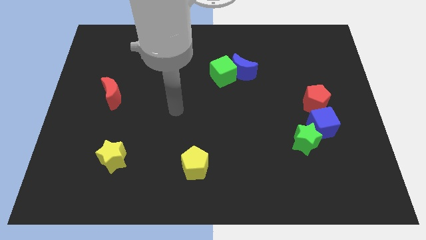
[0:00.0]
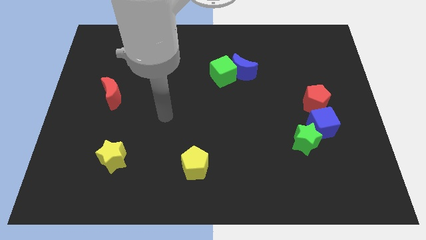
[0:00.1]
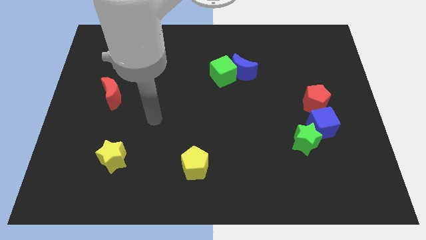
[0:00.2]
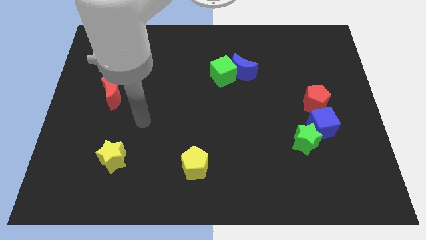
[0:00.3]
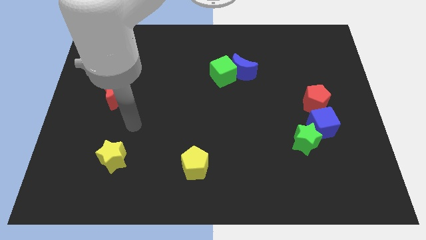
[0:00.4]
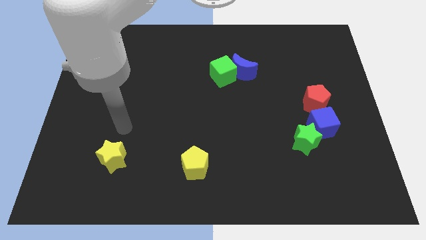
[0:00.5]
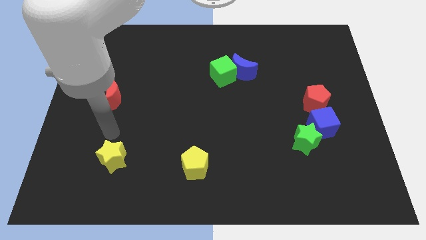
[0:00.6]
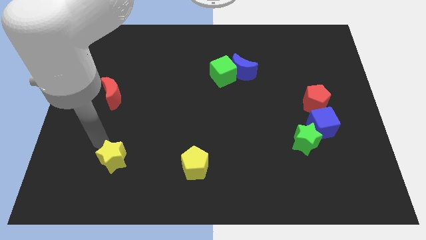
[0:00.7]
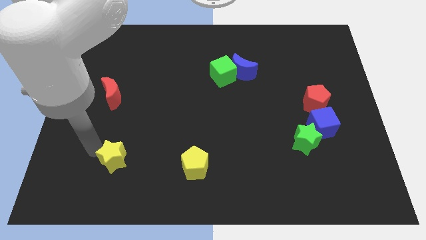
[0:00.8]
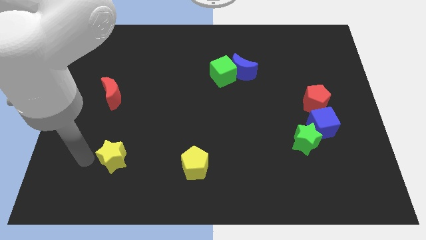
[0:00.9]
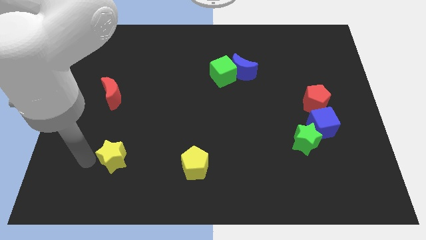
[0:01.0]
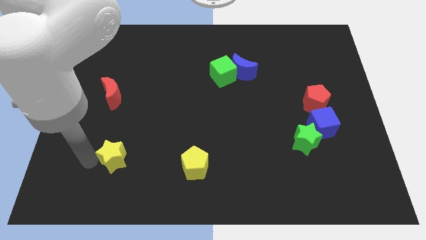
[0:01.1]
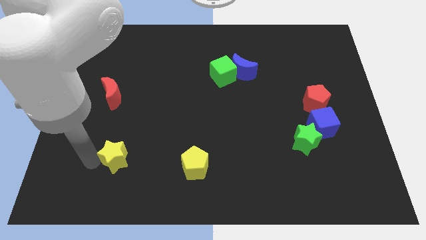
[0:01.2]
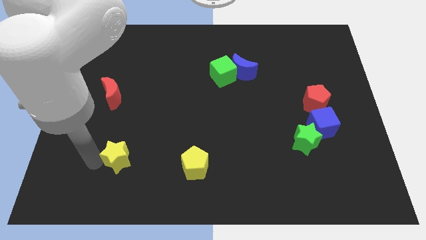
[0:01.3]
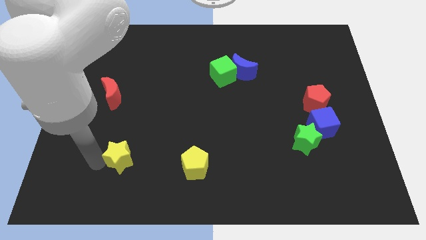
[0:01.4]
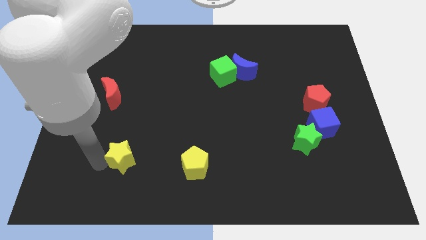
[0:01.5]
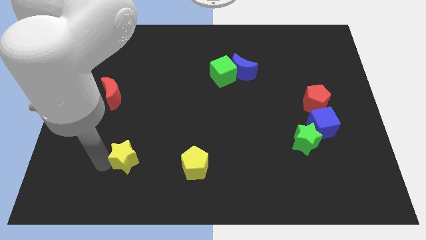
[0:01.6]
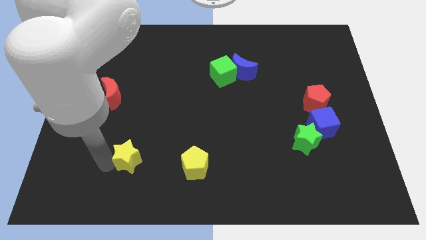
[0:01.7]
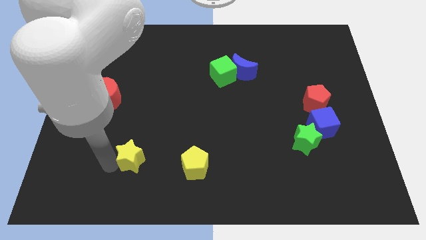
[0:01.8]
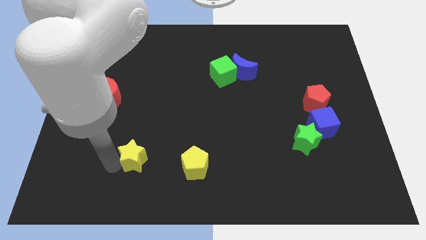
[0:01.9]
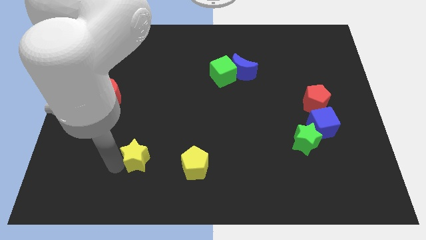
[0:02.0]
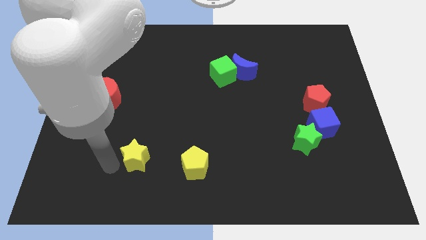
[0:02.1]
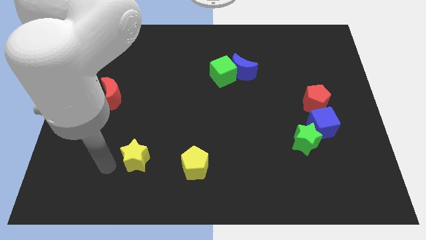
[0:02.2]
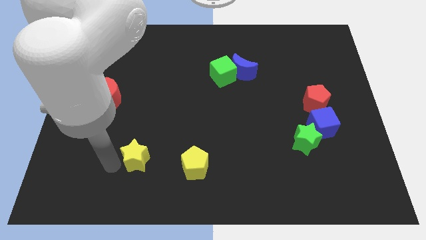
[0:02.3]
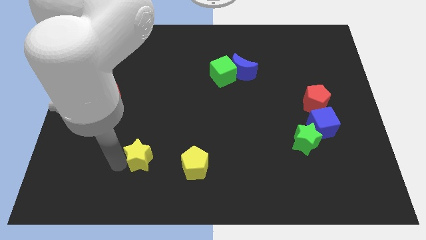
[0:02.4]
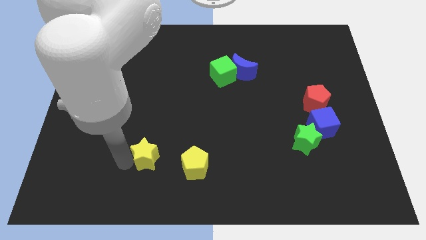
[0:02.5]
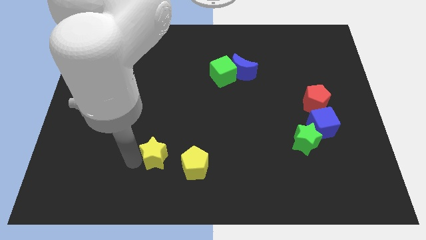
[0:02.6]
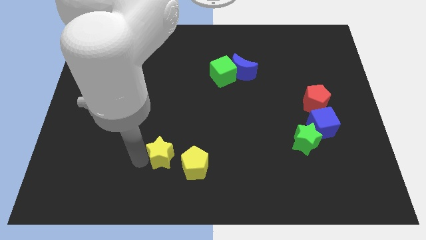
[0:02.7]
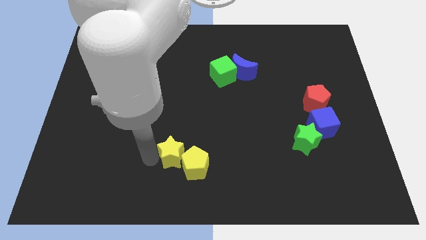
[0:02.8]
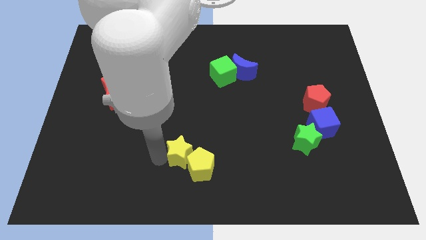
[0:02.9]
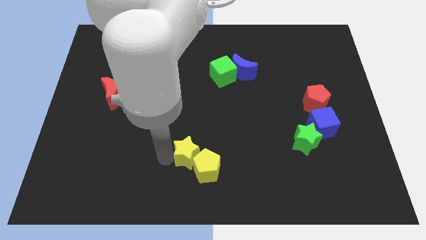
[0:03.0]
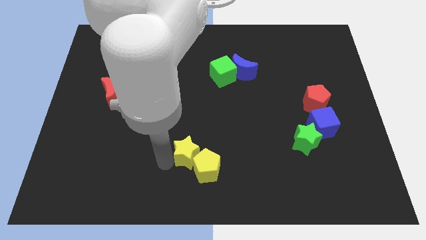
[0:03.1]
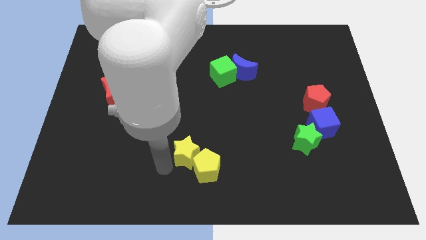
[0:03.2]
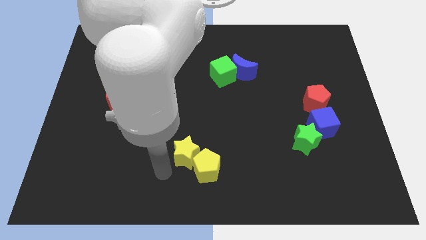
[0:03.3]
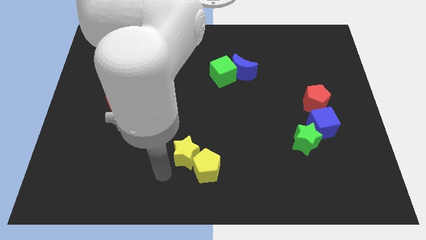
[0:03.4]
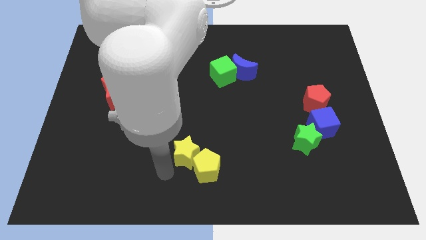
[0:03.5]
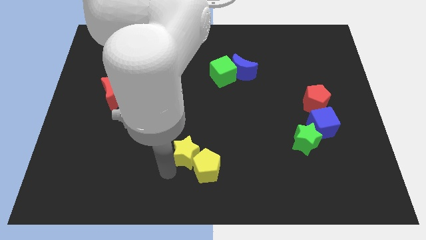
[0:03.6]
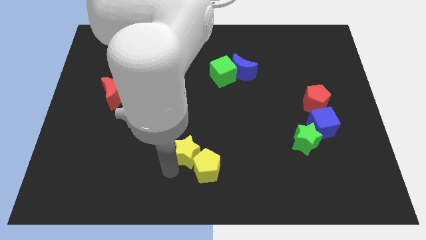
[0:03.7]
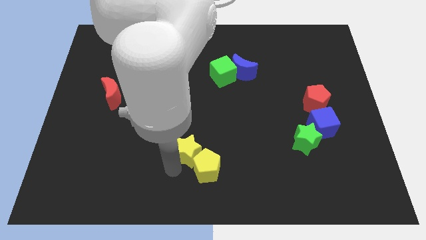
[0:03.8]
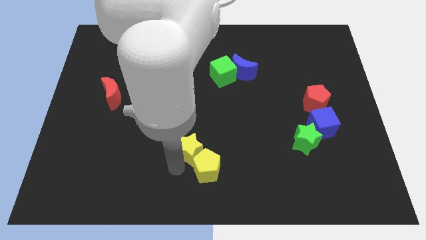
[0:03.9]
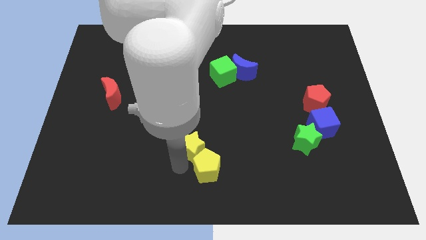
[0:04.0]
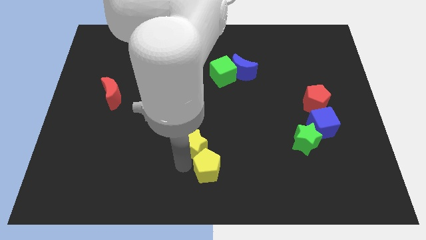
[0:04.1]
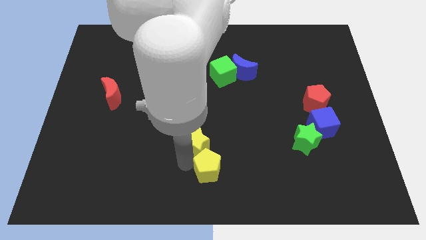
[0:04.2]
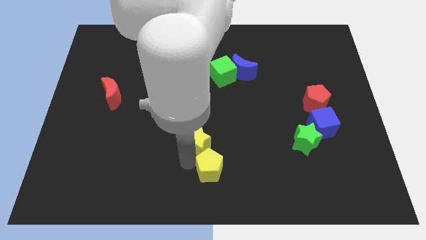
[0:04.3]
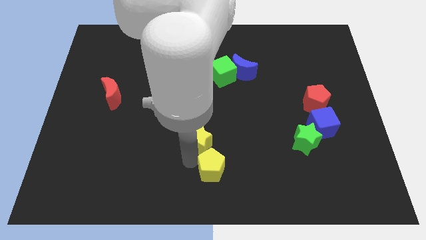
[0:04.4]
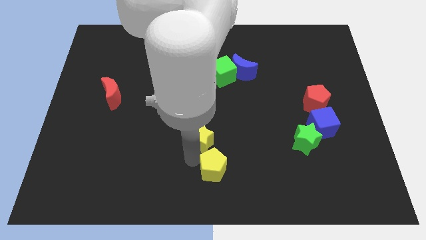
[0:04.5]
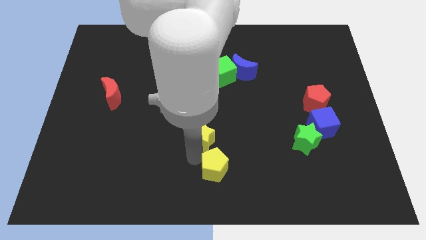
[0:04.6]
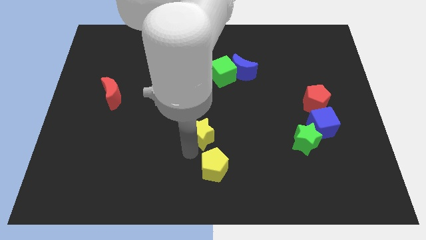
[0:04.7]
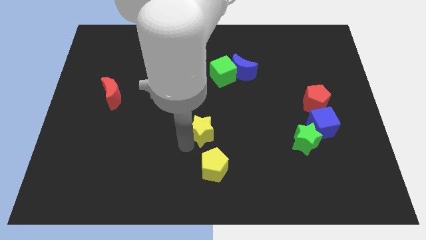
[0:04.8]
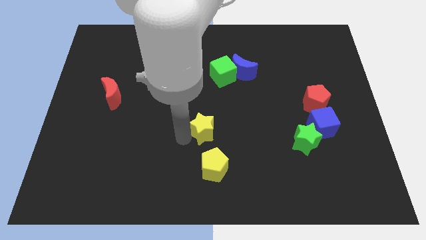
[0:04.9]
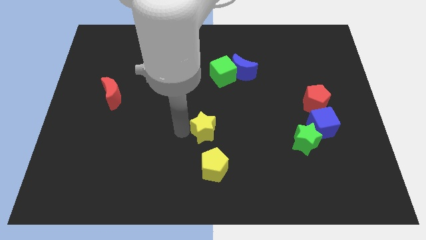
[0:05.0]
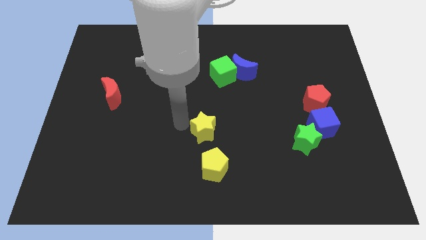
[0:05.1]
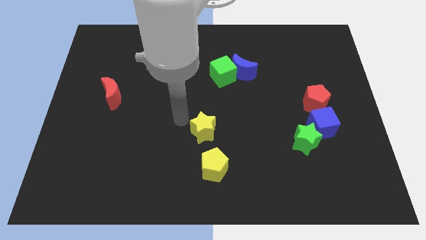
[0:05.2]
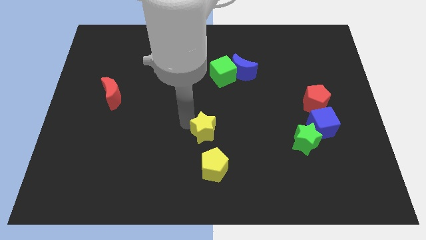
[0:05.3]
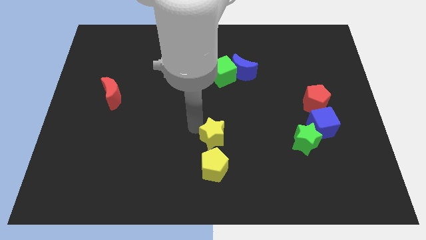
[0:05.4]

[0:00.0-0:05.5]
move the yellow star to the right

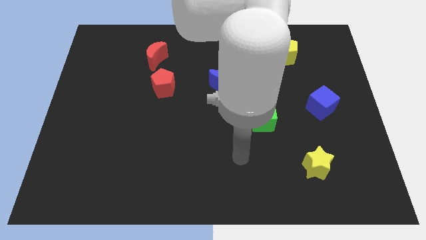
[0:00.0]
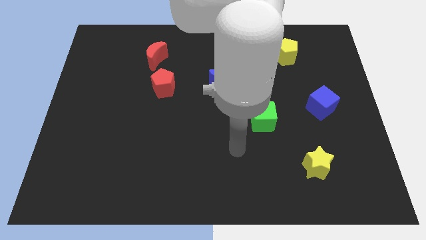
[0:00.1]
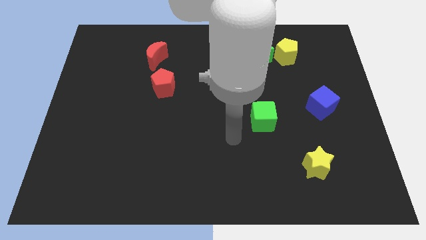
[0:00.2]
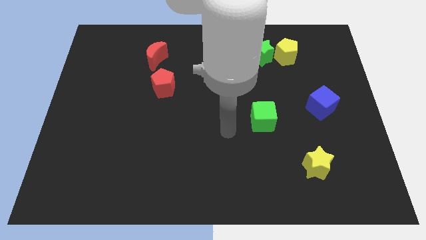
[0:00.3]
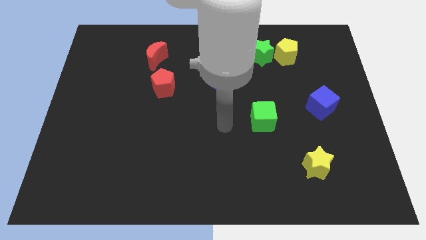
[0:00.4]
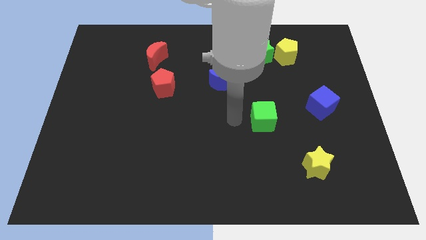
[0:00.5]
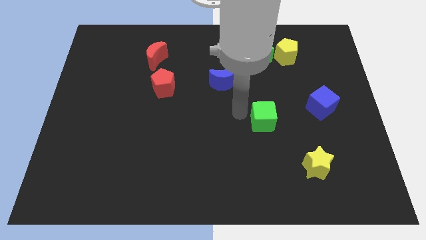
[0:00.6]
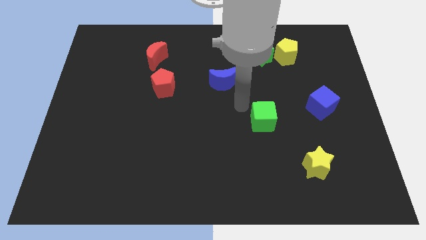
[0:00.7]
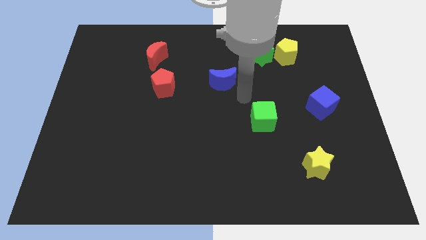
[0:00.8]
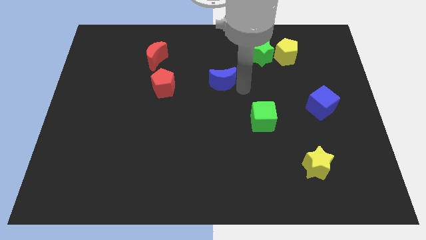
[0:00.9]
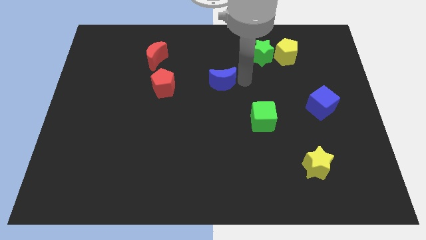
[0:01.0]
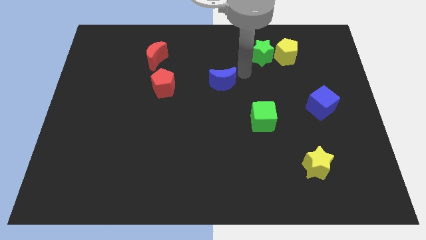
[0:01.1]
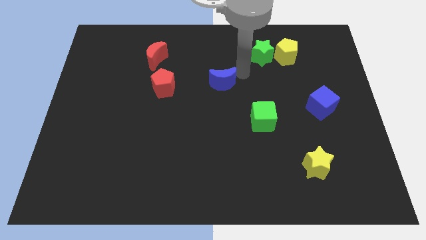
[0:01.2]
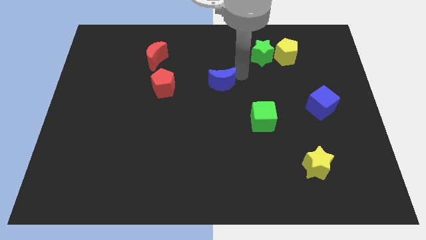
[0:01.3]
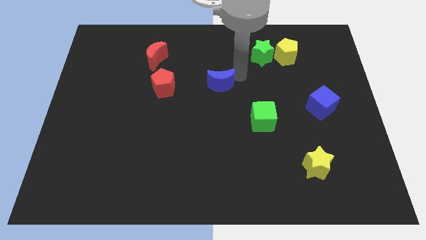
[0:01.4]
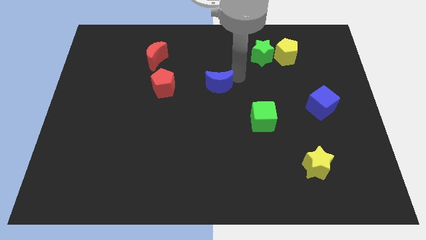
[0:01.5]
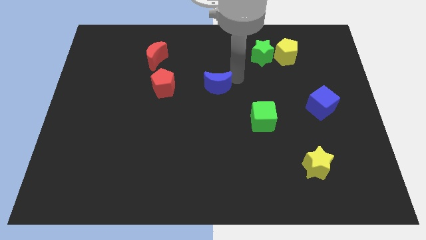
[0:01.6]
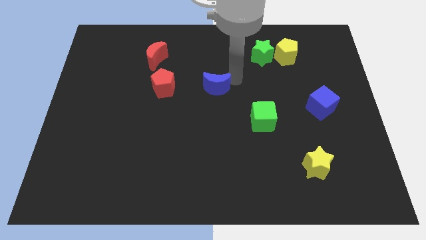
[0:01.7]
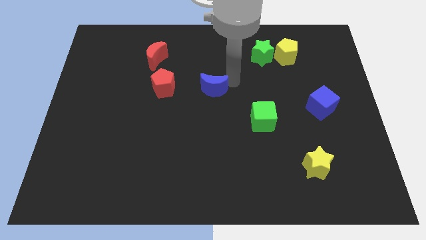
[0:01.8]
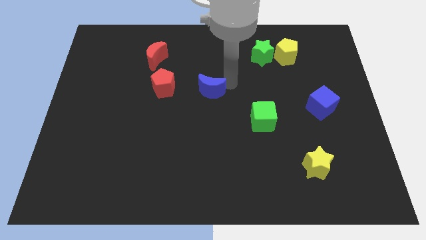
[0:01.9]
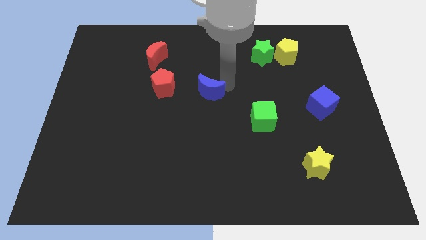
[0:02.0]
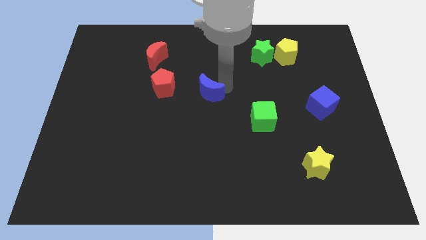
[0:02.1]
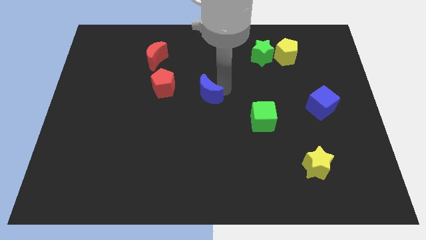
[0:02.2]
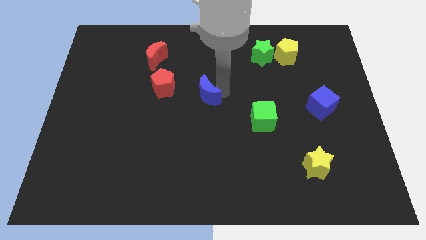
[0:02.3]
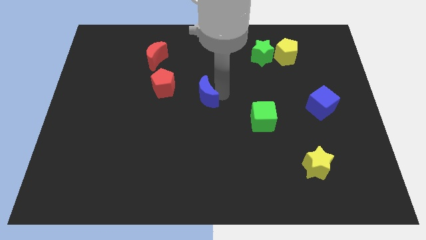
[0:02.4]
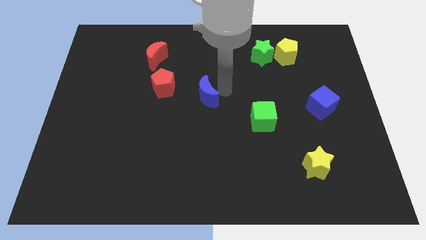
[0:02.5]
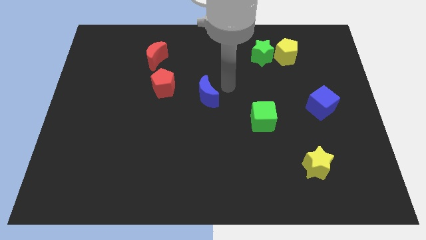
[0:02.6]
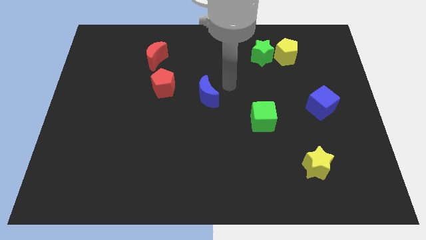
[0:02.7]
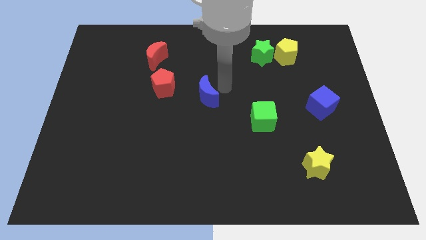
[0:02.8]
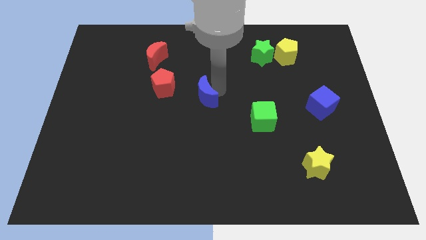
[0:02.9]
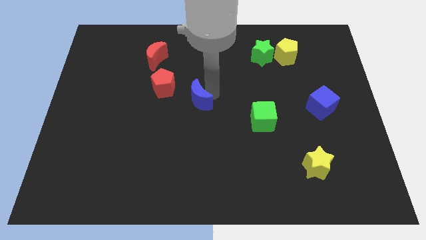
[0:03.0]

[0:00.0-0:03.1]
slightly move the blue moon diagonally downwards and left
